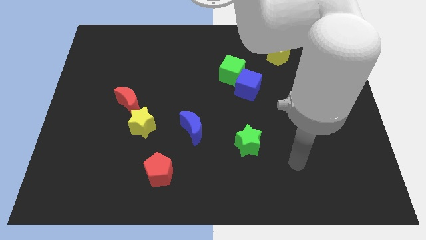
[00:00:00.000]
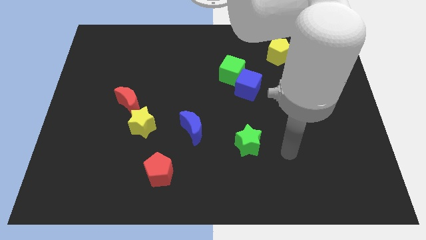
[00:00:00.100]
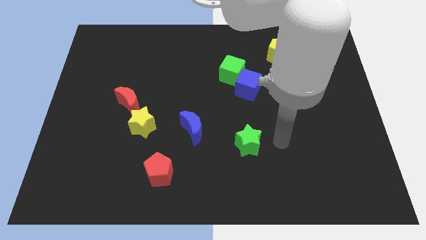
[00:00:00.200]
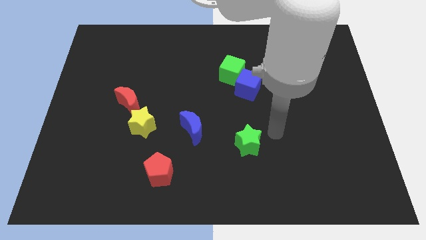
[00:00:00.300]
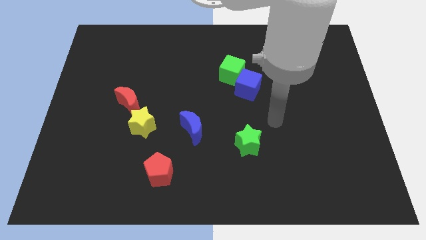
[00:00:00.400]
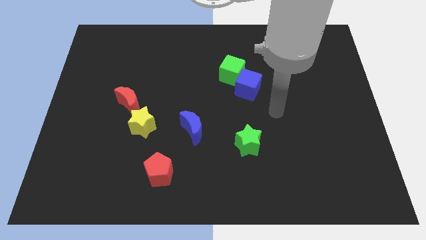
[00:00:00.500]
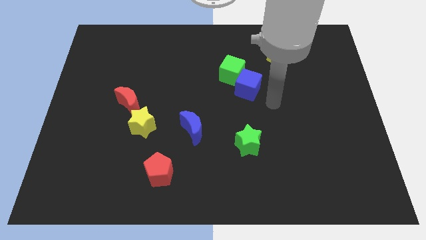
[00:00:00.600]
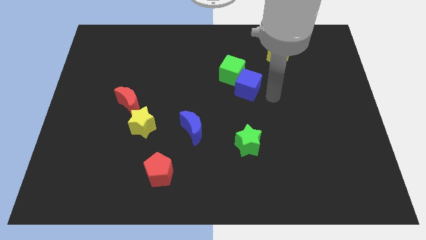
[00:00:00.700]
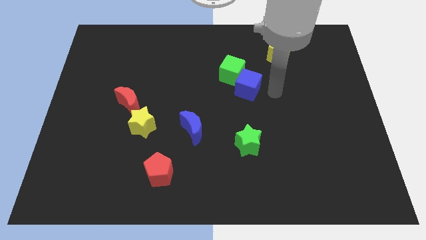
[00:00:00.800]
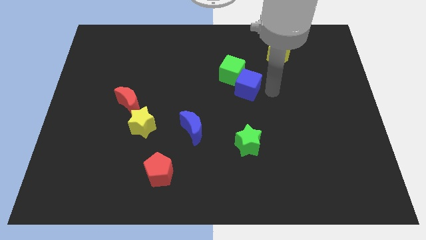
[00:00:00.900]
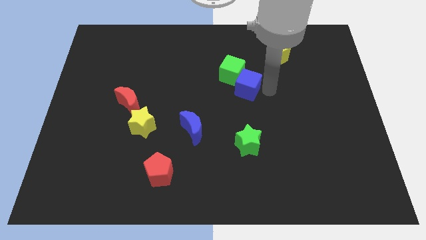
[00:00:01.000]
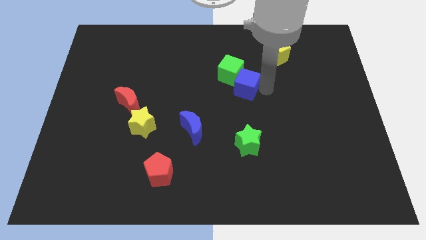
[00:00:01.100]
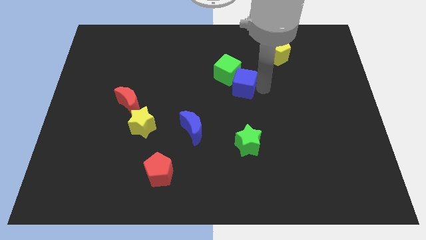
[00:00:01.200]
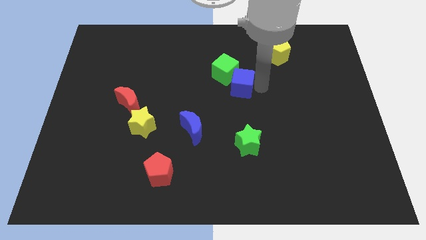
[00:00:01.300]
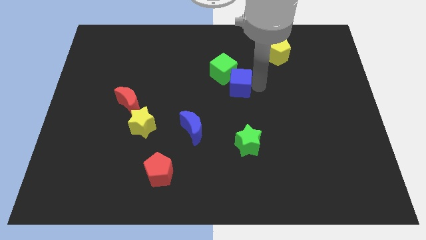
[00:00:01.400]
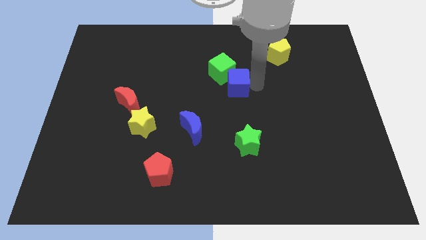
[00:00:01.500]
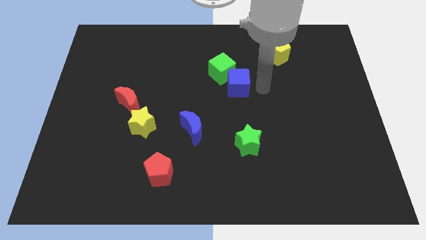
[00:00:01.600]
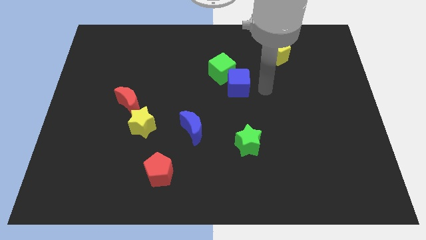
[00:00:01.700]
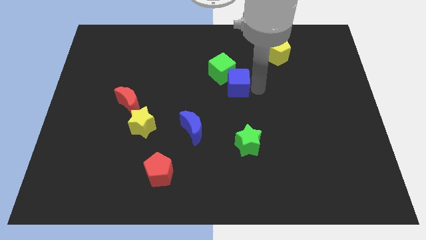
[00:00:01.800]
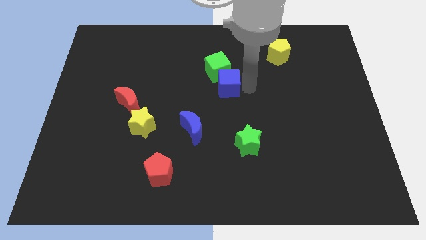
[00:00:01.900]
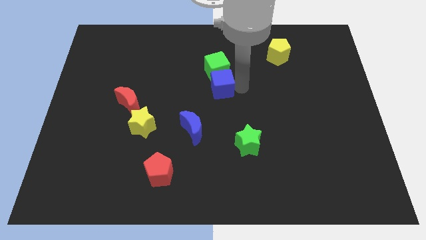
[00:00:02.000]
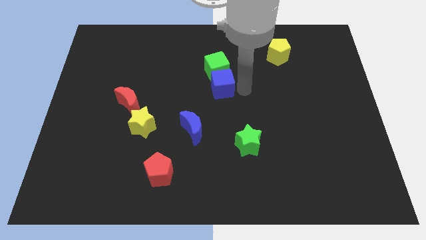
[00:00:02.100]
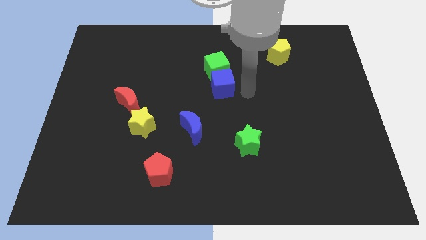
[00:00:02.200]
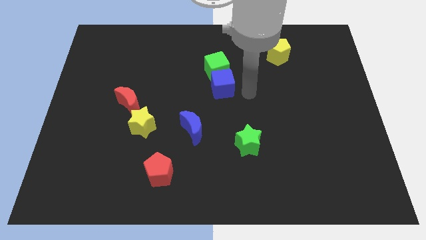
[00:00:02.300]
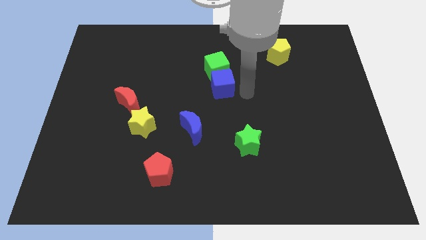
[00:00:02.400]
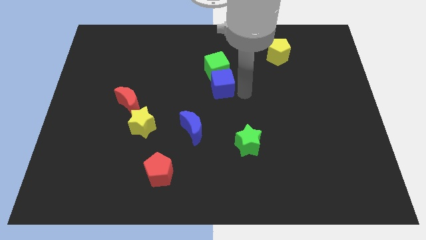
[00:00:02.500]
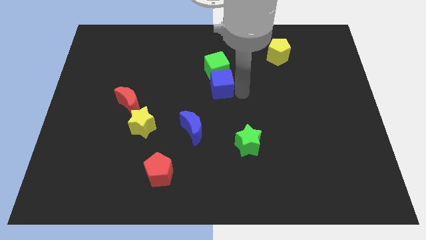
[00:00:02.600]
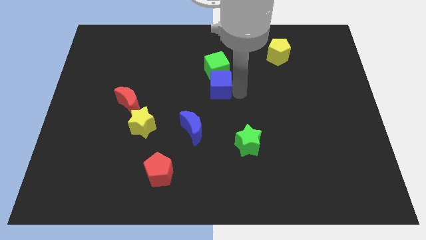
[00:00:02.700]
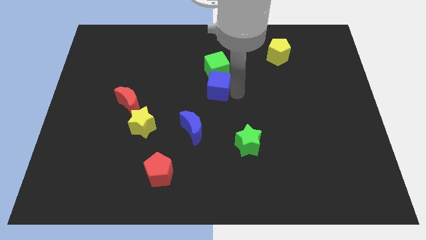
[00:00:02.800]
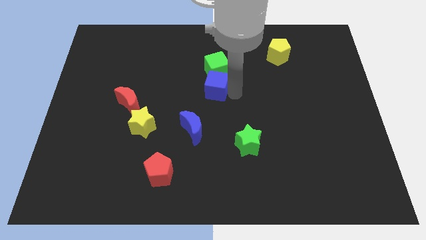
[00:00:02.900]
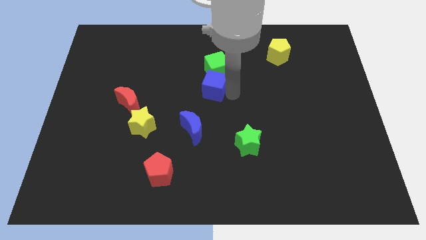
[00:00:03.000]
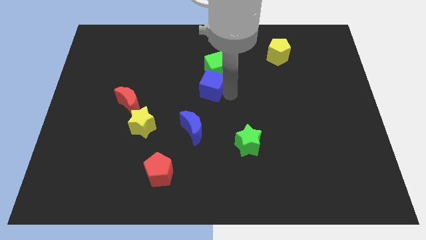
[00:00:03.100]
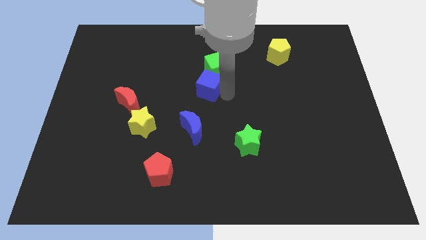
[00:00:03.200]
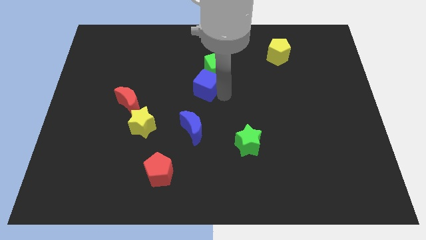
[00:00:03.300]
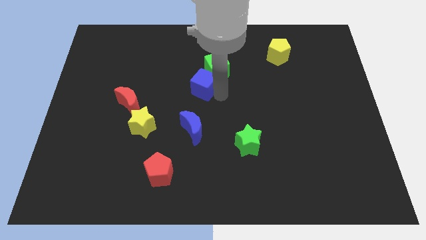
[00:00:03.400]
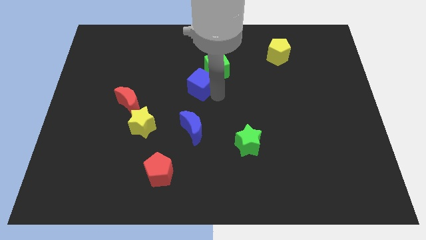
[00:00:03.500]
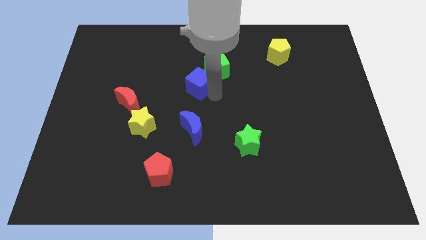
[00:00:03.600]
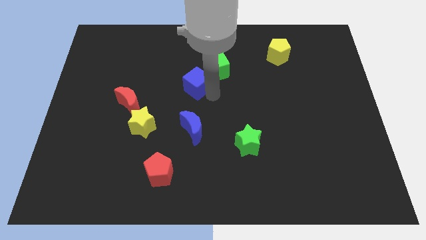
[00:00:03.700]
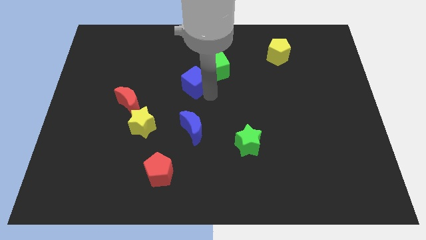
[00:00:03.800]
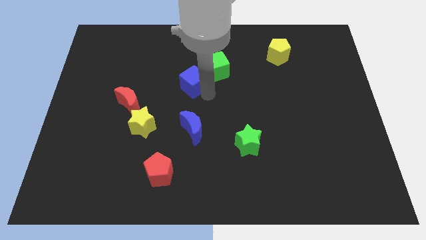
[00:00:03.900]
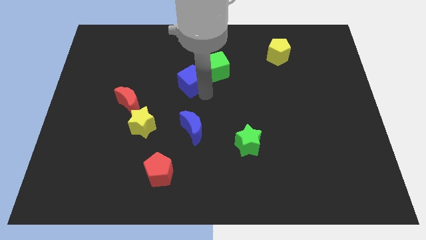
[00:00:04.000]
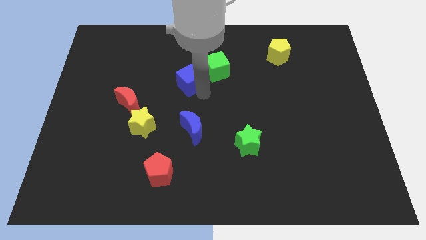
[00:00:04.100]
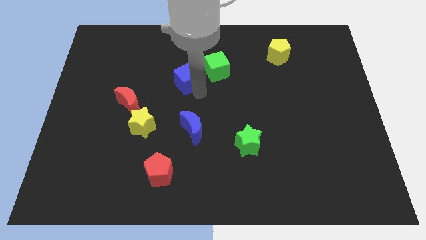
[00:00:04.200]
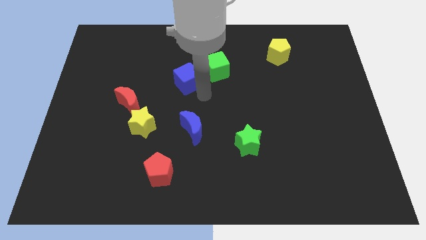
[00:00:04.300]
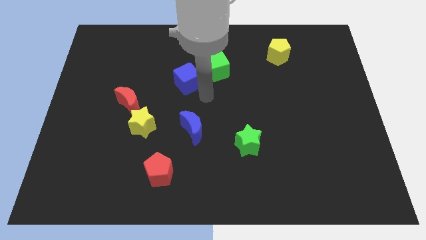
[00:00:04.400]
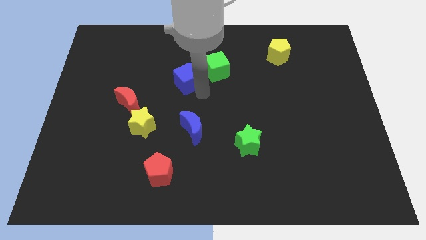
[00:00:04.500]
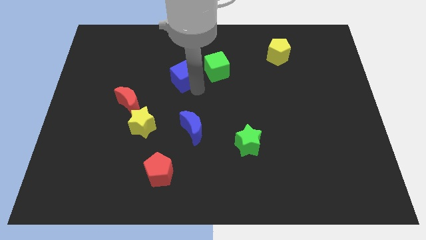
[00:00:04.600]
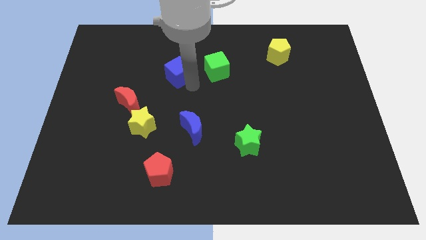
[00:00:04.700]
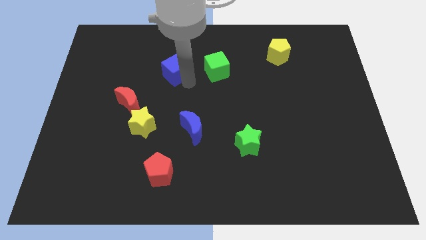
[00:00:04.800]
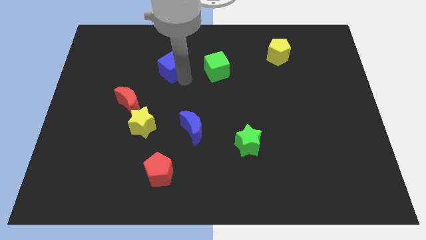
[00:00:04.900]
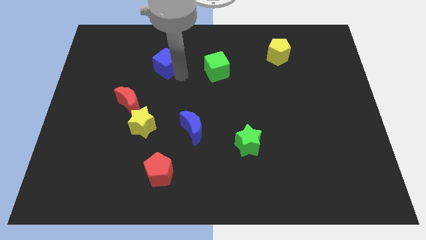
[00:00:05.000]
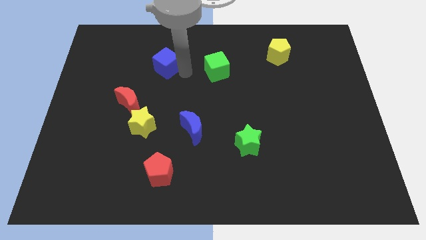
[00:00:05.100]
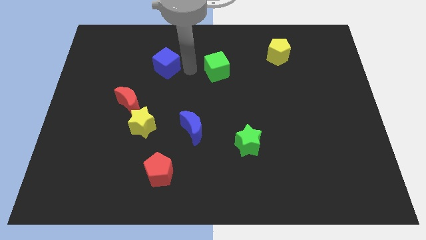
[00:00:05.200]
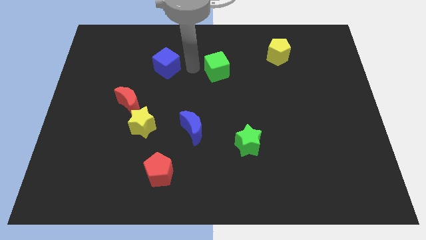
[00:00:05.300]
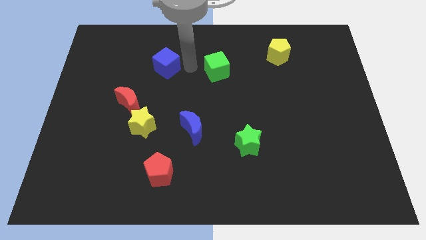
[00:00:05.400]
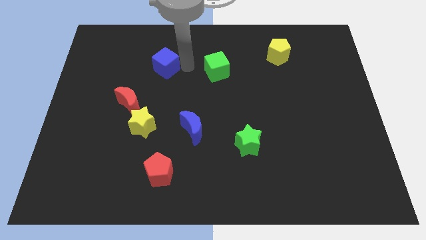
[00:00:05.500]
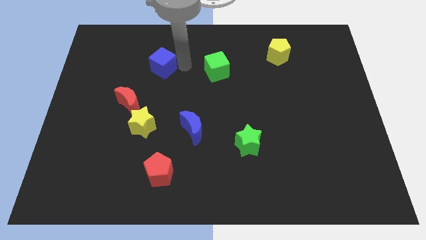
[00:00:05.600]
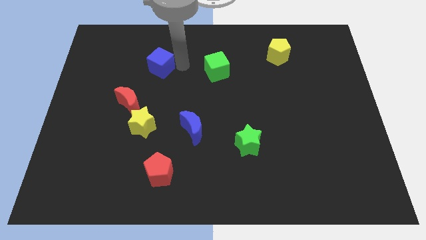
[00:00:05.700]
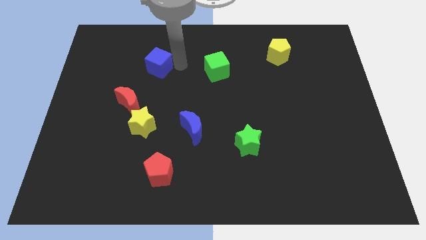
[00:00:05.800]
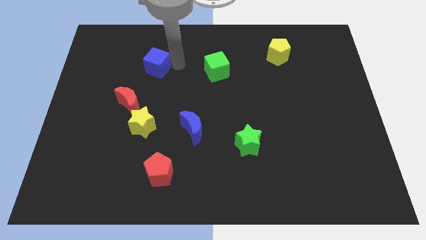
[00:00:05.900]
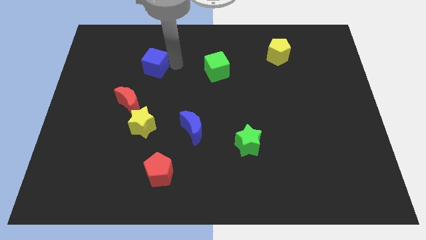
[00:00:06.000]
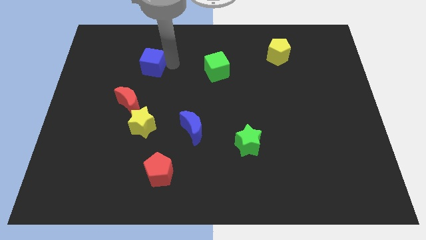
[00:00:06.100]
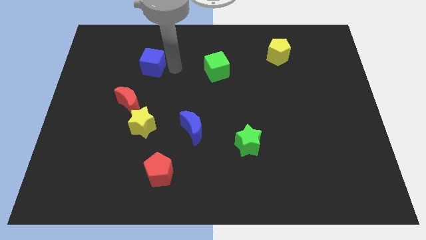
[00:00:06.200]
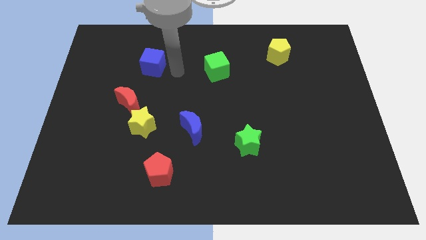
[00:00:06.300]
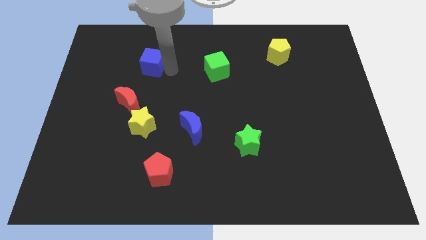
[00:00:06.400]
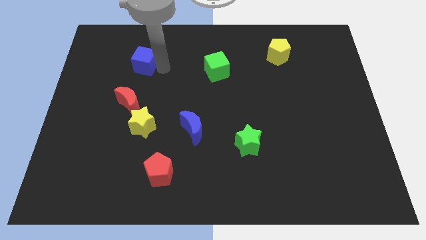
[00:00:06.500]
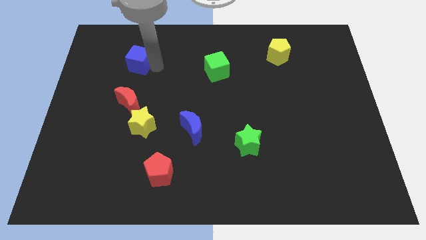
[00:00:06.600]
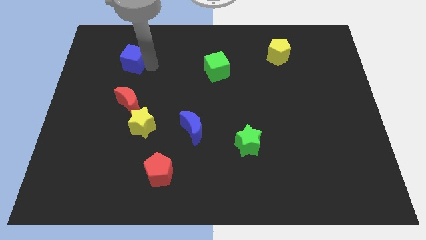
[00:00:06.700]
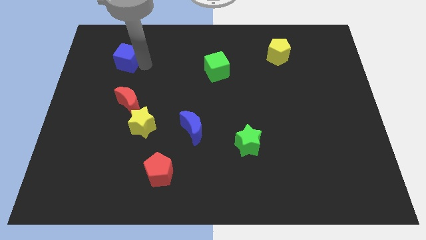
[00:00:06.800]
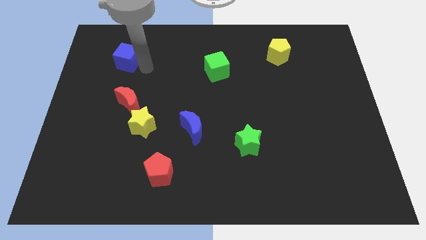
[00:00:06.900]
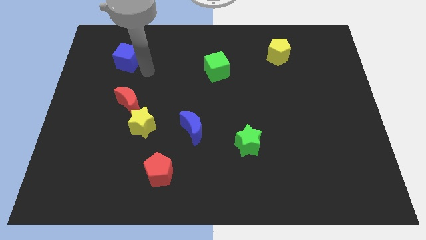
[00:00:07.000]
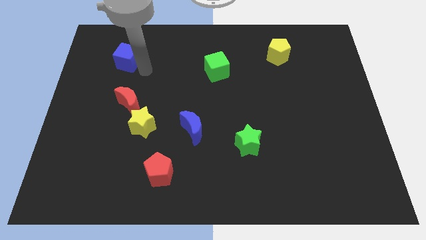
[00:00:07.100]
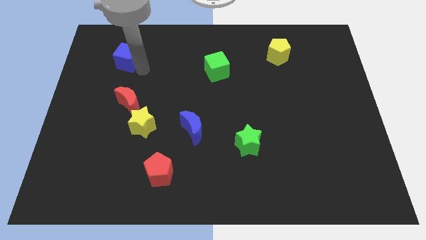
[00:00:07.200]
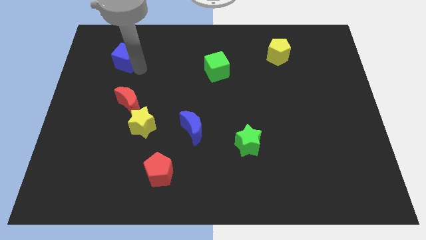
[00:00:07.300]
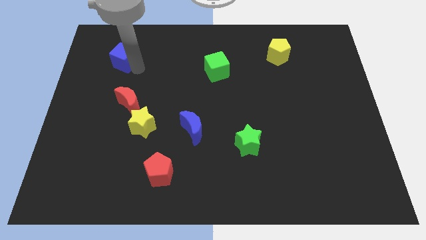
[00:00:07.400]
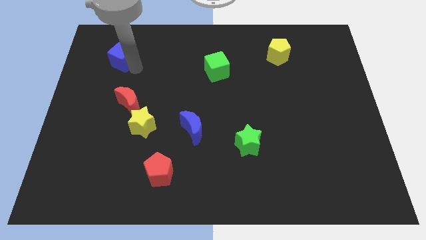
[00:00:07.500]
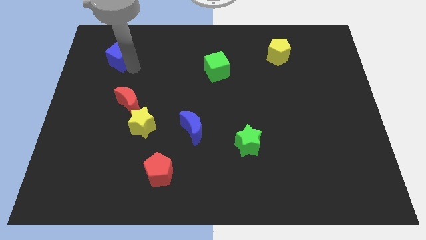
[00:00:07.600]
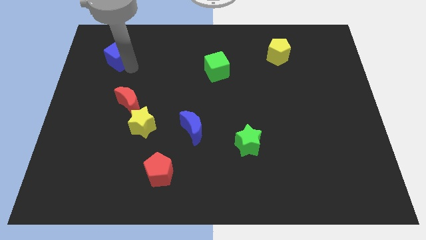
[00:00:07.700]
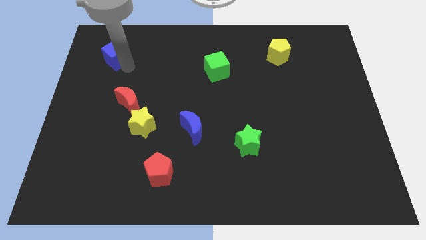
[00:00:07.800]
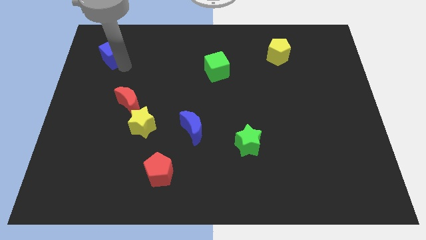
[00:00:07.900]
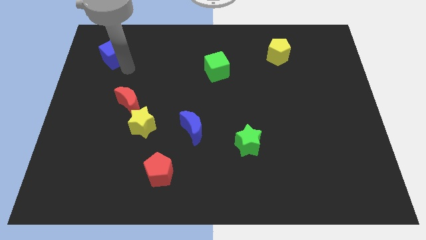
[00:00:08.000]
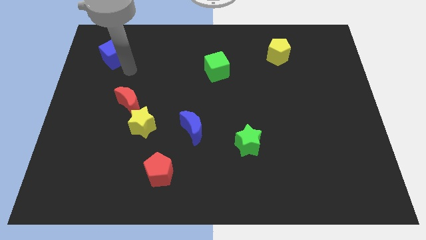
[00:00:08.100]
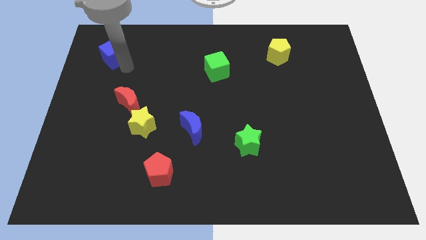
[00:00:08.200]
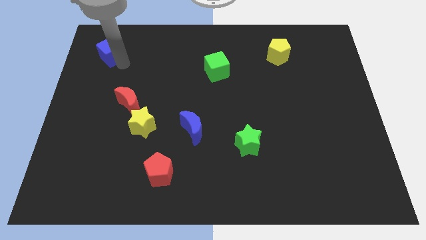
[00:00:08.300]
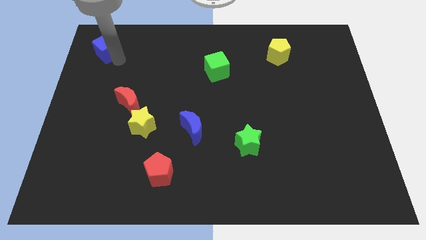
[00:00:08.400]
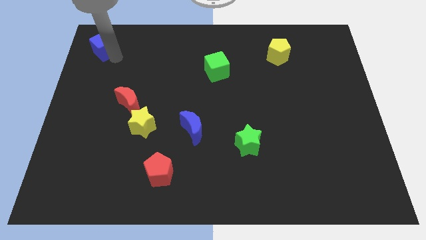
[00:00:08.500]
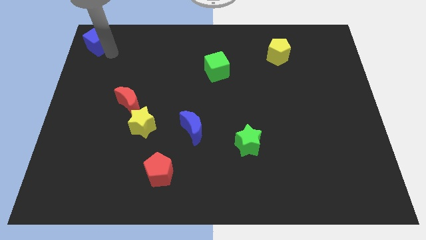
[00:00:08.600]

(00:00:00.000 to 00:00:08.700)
put the blue cube to the upper left corner
